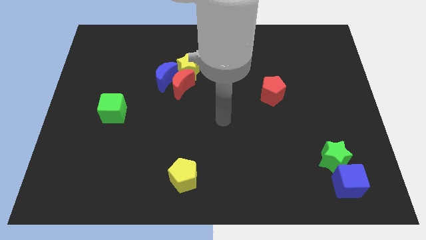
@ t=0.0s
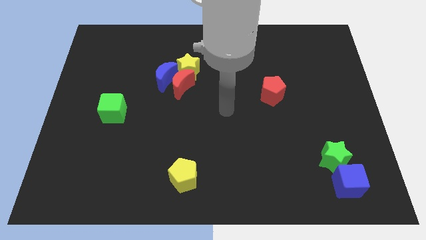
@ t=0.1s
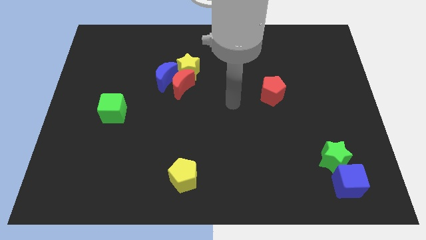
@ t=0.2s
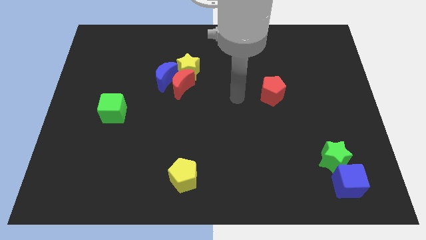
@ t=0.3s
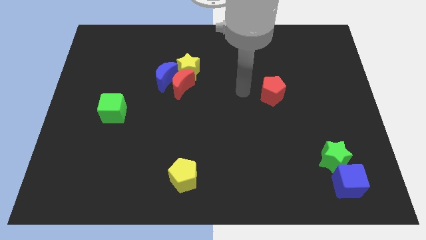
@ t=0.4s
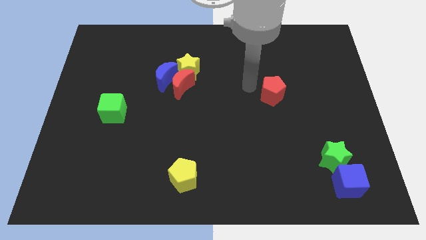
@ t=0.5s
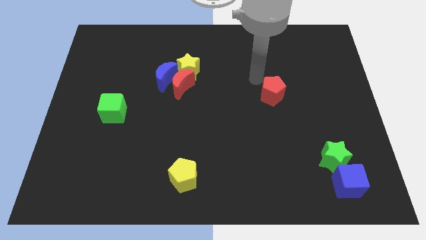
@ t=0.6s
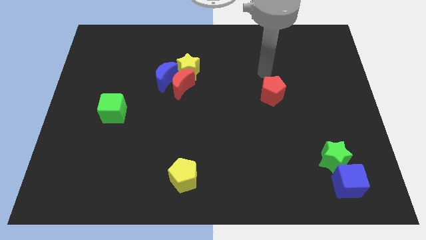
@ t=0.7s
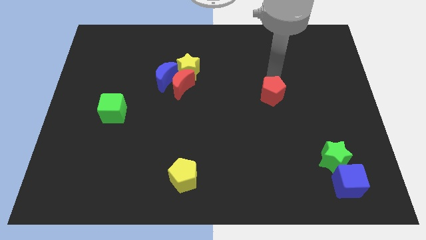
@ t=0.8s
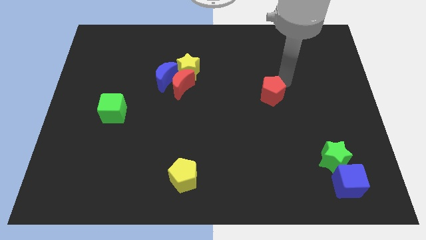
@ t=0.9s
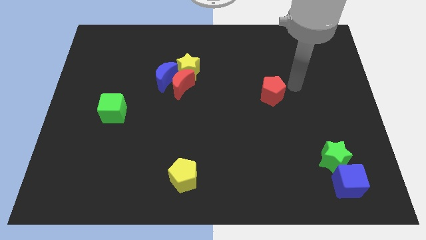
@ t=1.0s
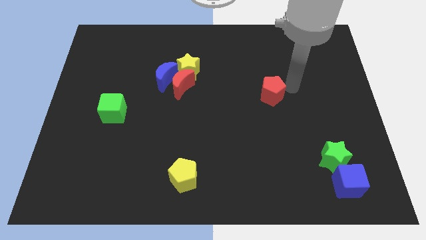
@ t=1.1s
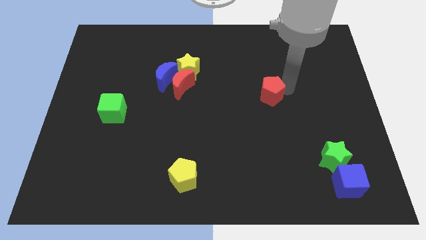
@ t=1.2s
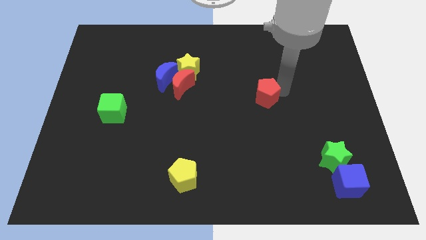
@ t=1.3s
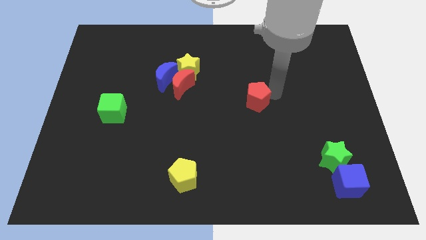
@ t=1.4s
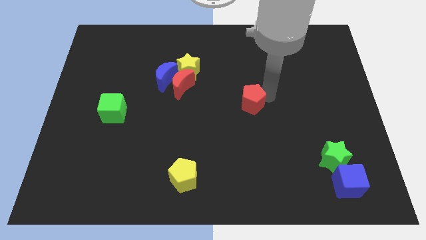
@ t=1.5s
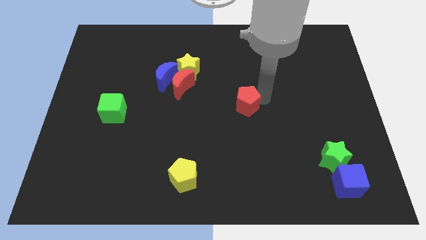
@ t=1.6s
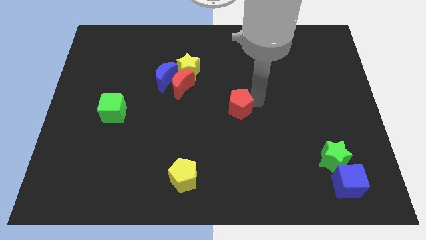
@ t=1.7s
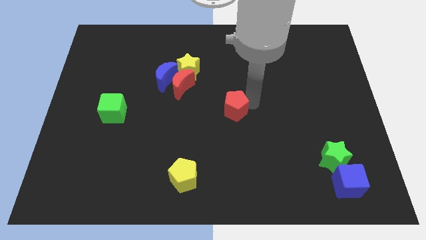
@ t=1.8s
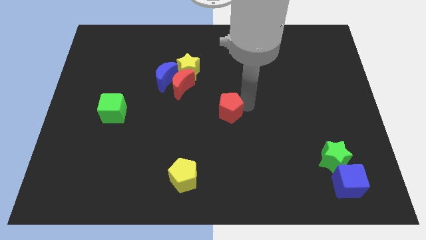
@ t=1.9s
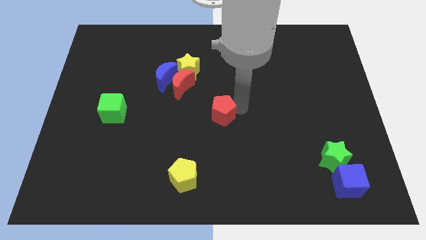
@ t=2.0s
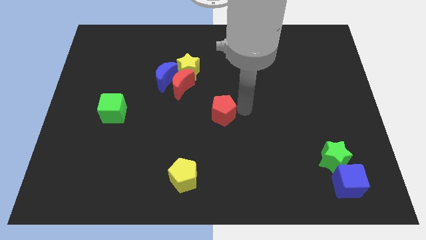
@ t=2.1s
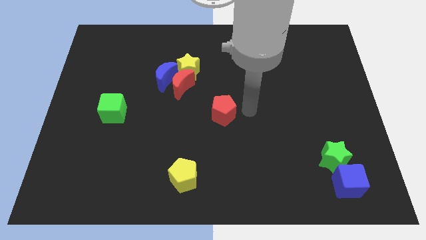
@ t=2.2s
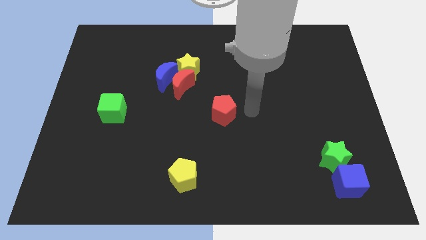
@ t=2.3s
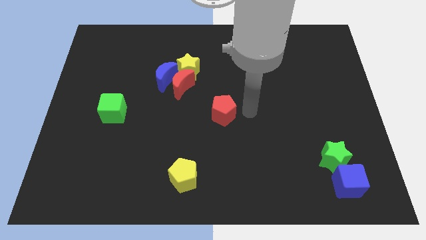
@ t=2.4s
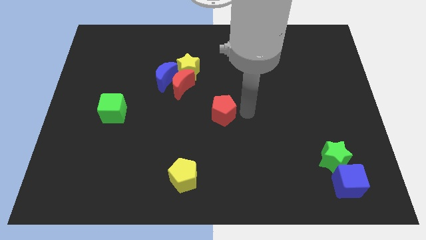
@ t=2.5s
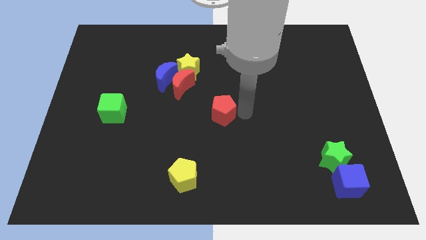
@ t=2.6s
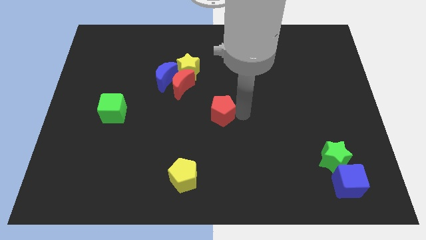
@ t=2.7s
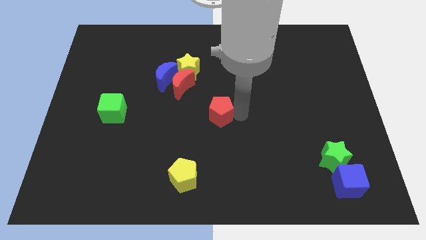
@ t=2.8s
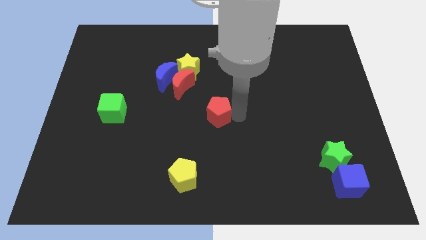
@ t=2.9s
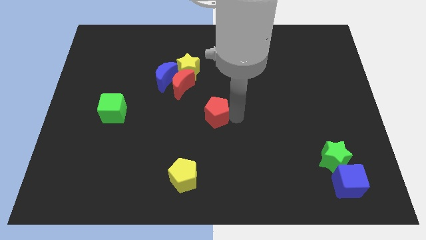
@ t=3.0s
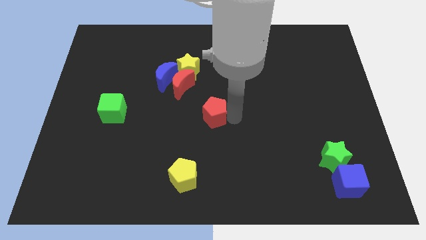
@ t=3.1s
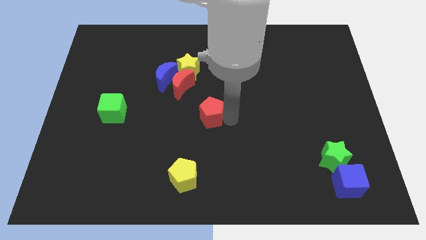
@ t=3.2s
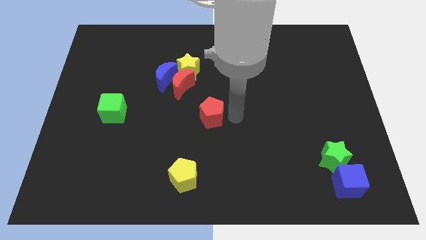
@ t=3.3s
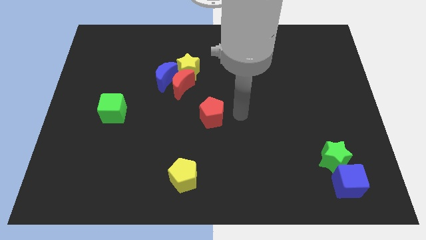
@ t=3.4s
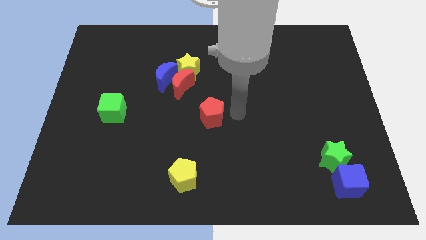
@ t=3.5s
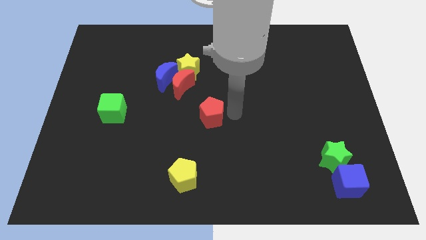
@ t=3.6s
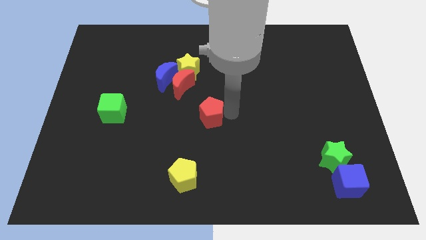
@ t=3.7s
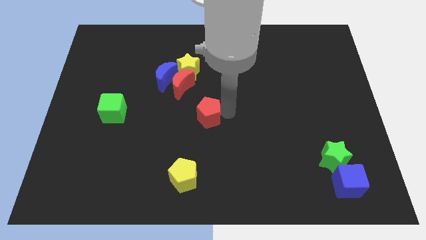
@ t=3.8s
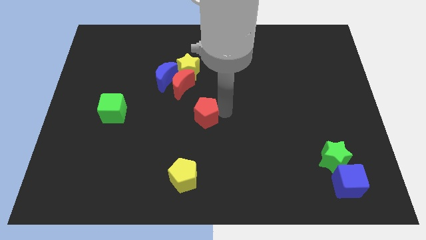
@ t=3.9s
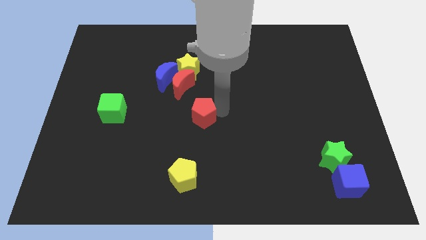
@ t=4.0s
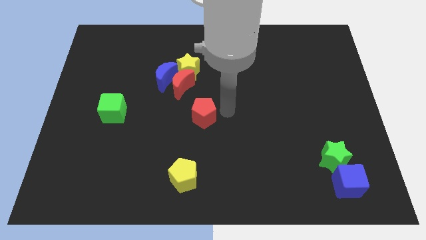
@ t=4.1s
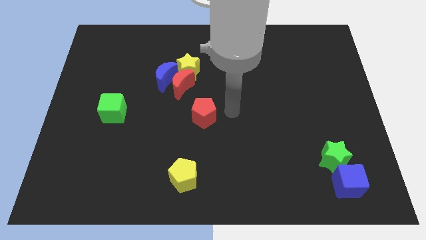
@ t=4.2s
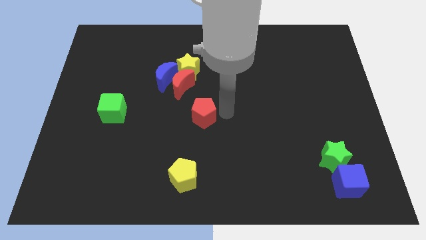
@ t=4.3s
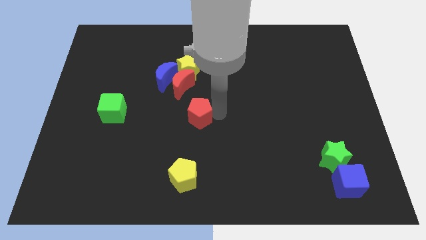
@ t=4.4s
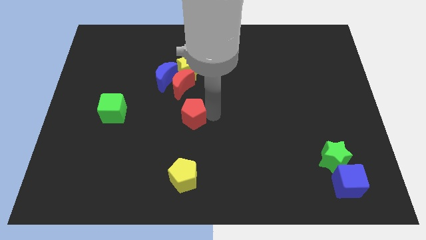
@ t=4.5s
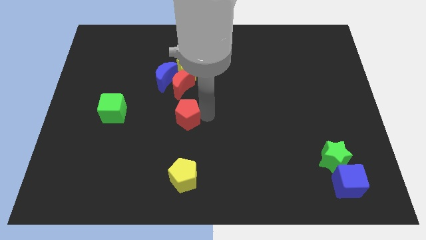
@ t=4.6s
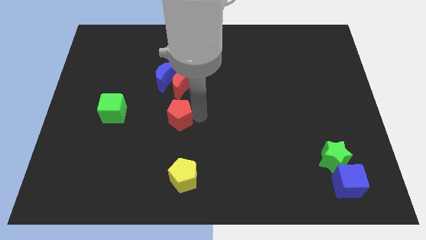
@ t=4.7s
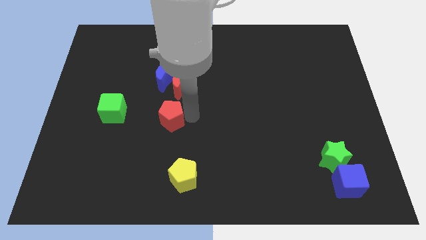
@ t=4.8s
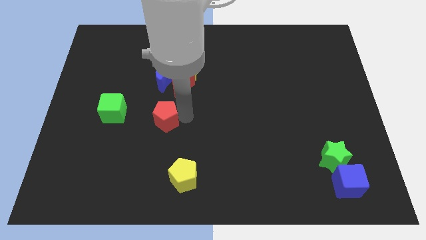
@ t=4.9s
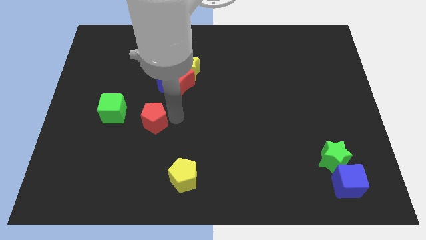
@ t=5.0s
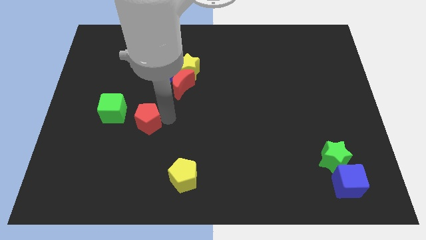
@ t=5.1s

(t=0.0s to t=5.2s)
move the red pentagon to the bottom right side of the green cube

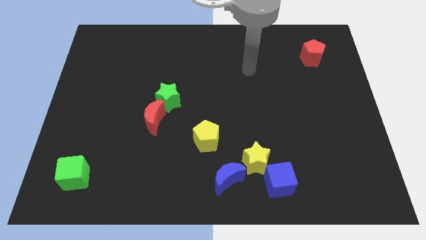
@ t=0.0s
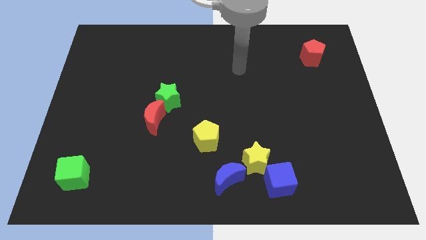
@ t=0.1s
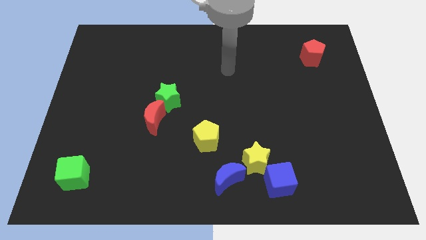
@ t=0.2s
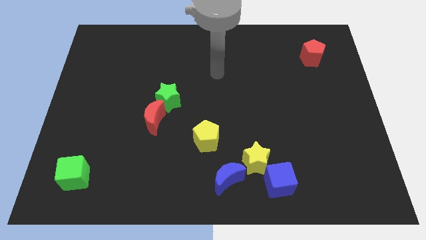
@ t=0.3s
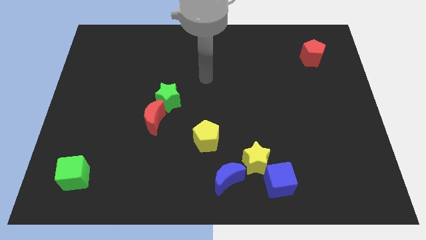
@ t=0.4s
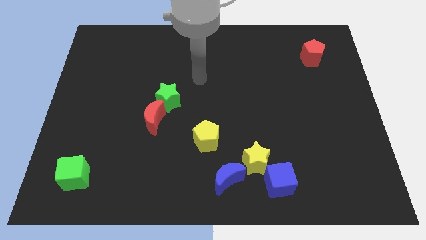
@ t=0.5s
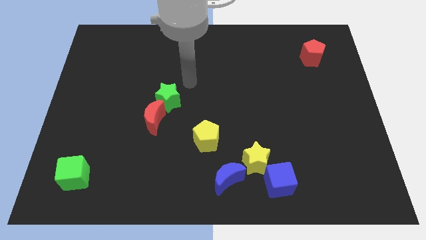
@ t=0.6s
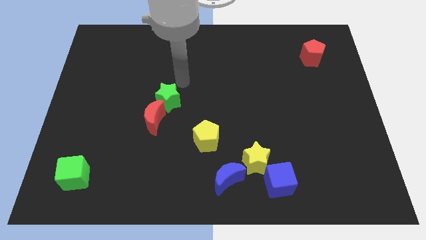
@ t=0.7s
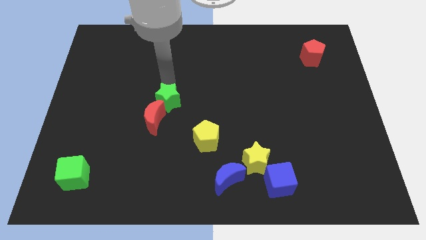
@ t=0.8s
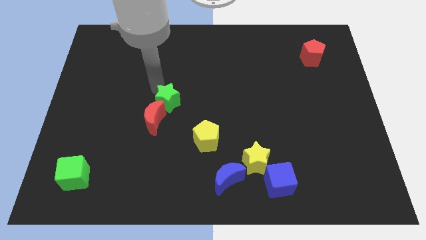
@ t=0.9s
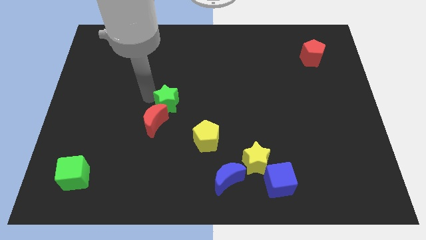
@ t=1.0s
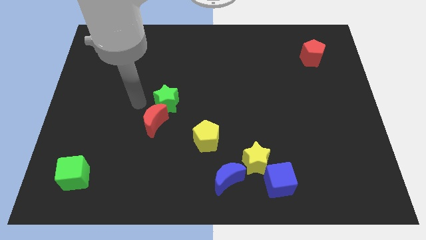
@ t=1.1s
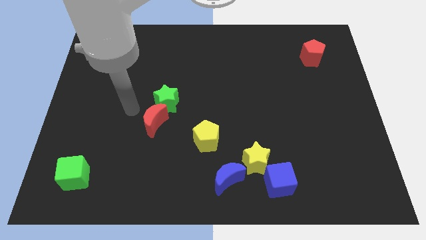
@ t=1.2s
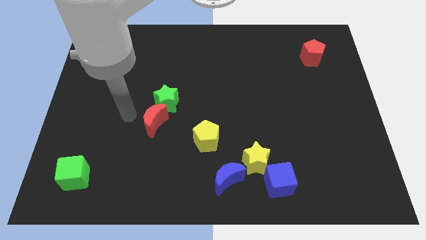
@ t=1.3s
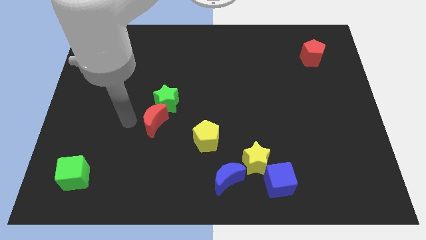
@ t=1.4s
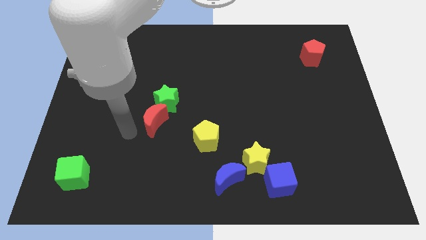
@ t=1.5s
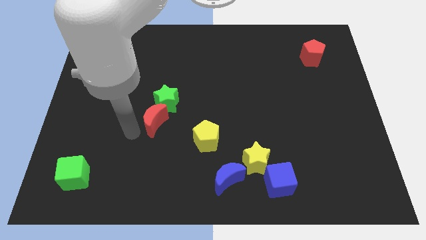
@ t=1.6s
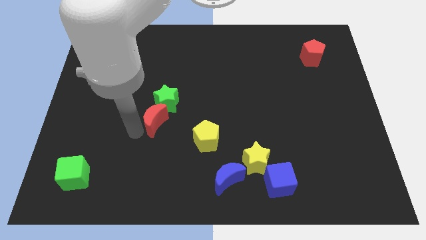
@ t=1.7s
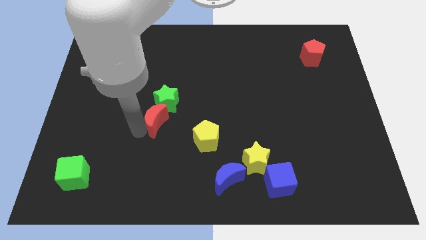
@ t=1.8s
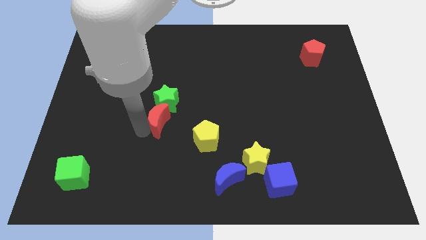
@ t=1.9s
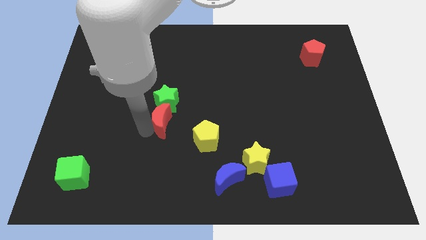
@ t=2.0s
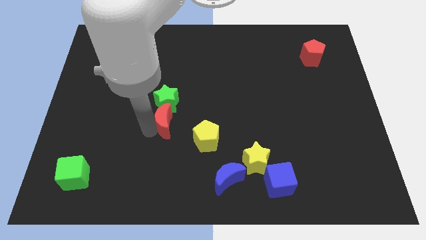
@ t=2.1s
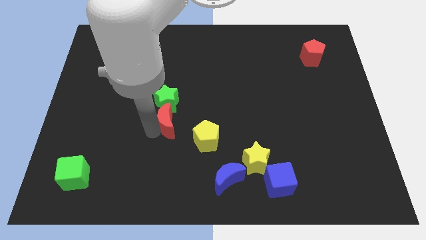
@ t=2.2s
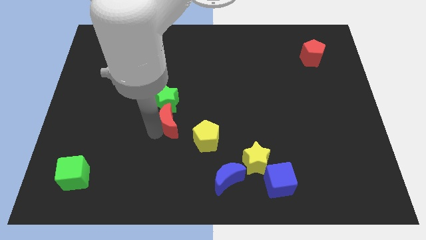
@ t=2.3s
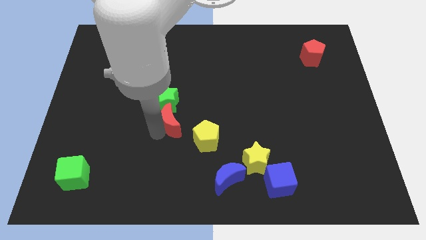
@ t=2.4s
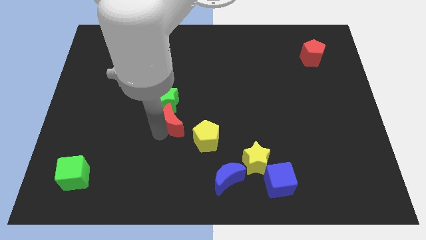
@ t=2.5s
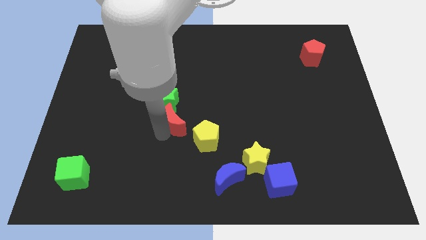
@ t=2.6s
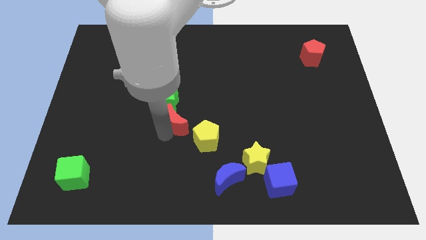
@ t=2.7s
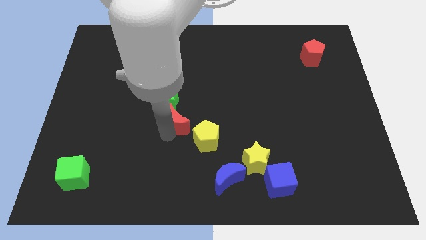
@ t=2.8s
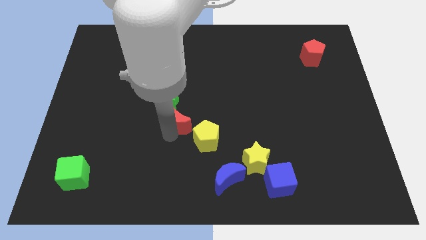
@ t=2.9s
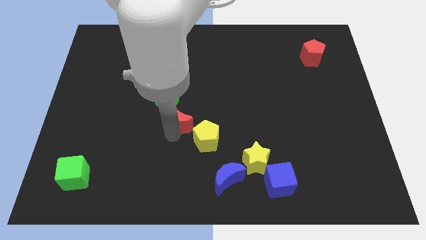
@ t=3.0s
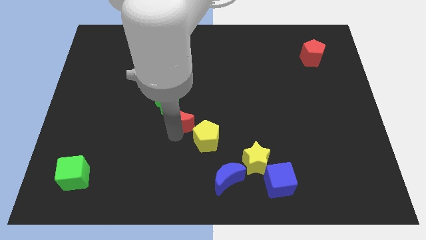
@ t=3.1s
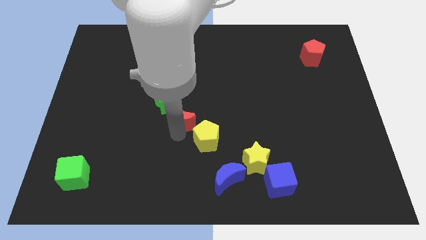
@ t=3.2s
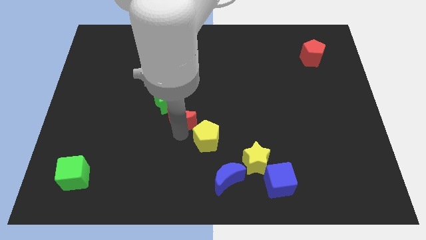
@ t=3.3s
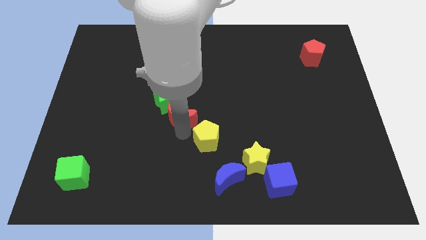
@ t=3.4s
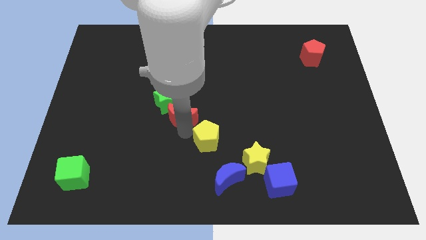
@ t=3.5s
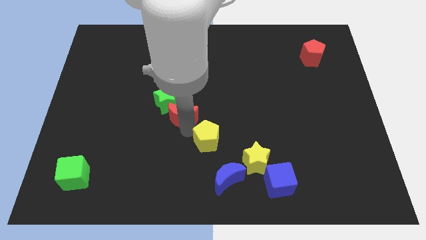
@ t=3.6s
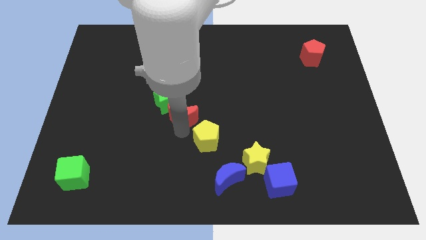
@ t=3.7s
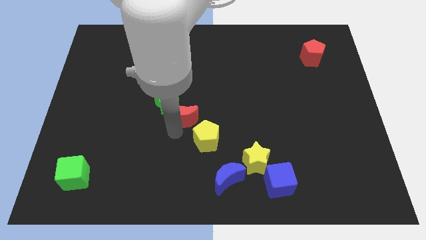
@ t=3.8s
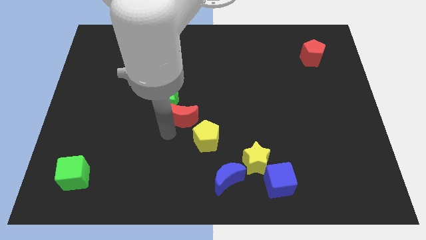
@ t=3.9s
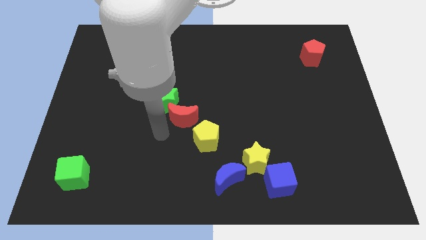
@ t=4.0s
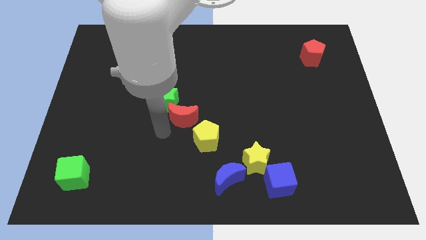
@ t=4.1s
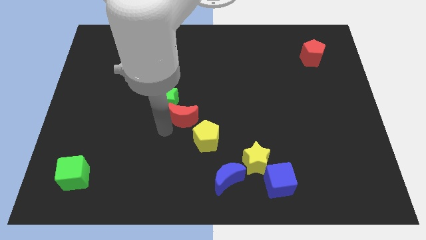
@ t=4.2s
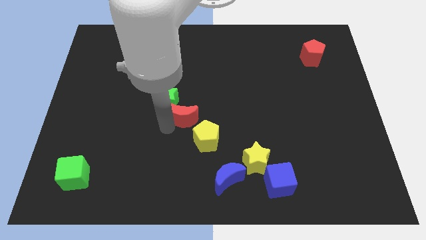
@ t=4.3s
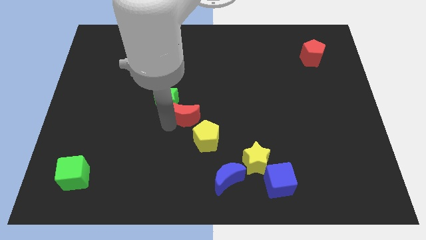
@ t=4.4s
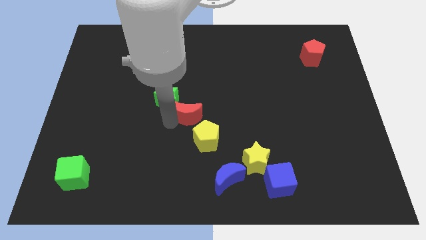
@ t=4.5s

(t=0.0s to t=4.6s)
push the red moon to the top side of the yellow pentagon